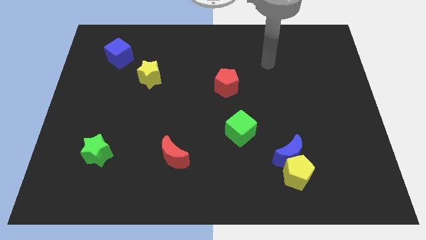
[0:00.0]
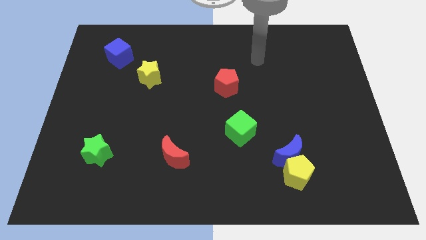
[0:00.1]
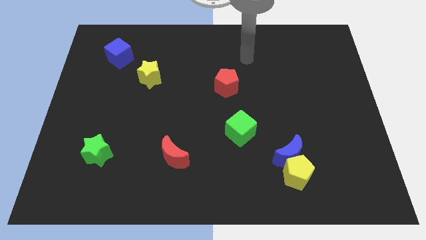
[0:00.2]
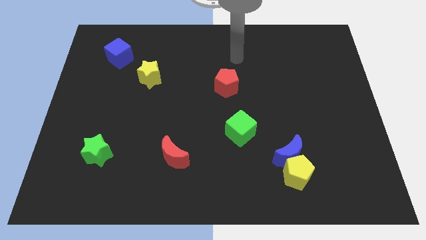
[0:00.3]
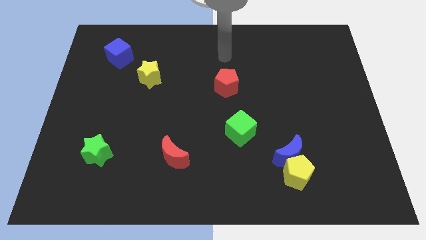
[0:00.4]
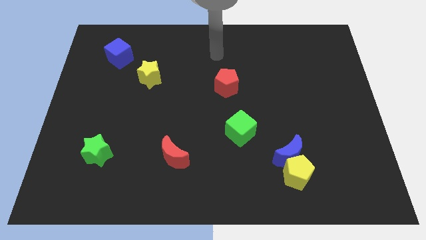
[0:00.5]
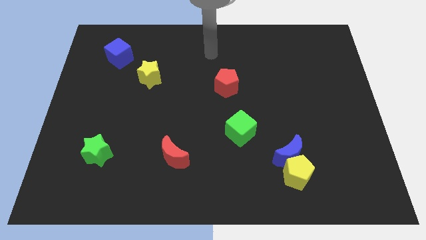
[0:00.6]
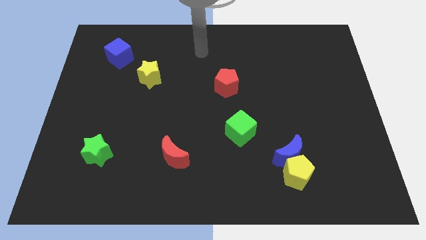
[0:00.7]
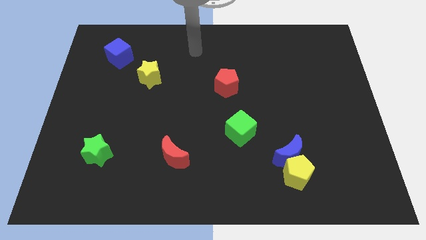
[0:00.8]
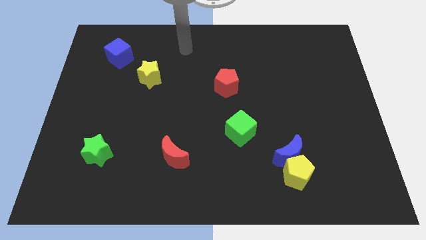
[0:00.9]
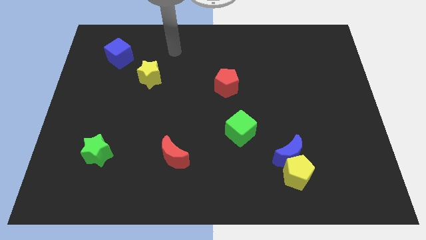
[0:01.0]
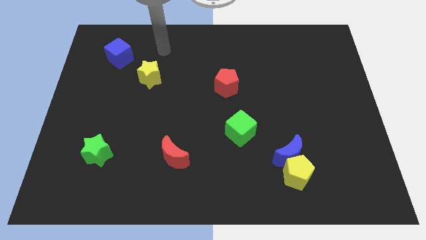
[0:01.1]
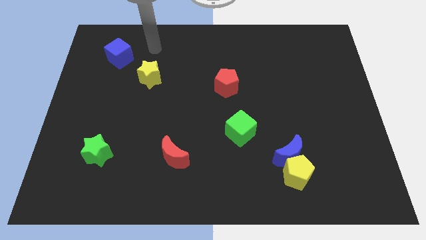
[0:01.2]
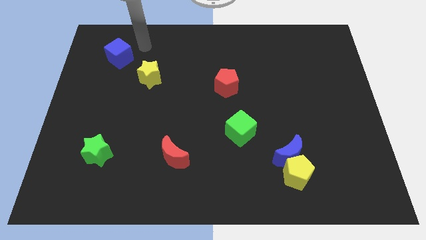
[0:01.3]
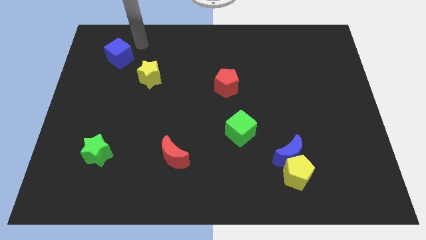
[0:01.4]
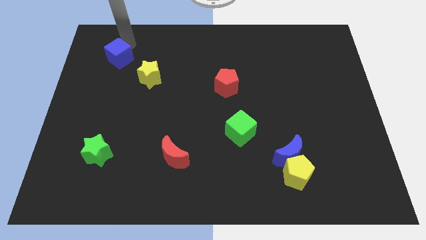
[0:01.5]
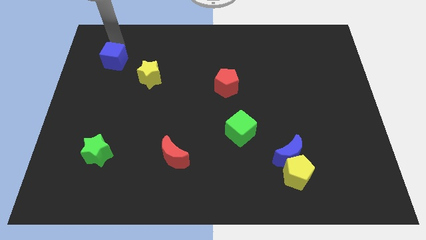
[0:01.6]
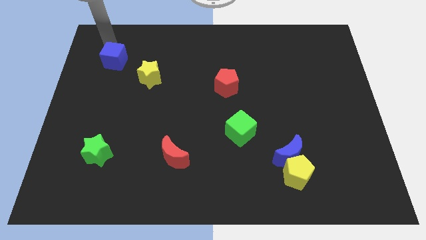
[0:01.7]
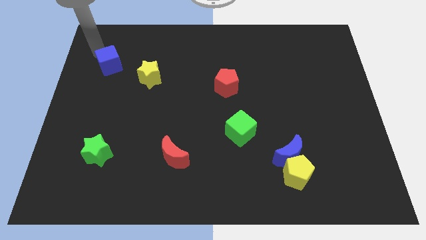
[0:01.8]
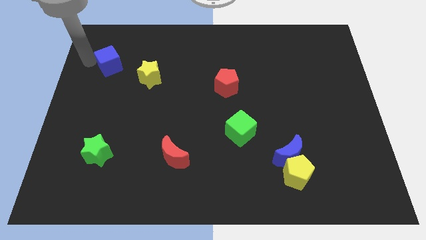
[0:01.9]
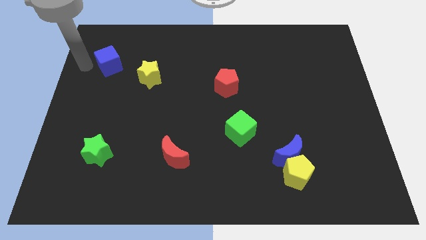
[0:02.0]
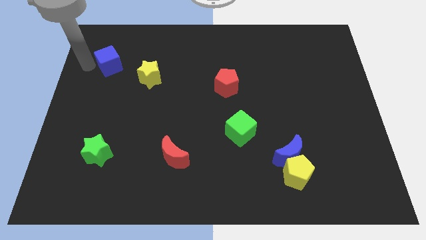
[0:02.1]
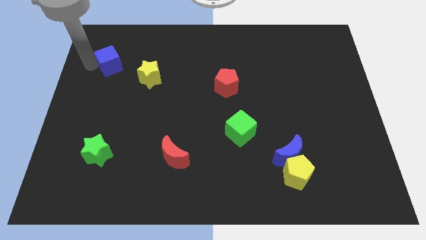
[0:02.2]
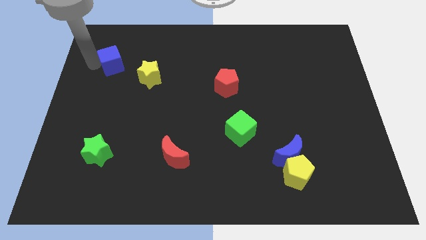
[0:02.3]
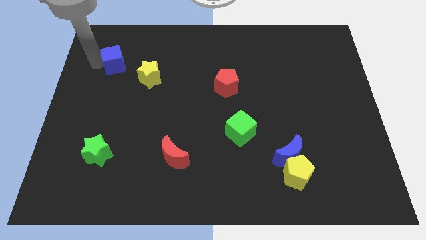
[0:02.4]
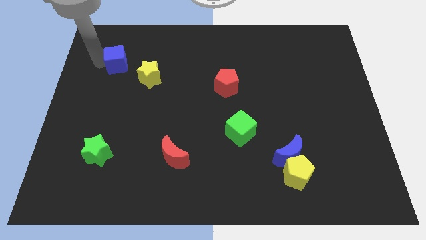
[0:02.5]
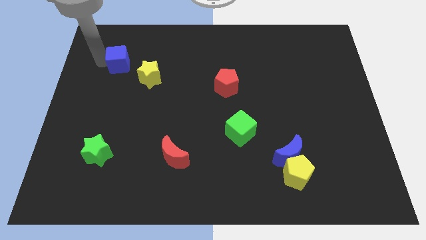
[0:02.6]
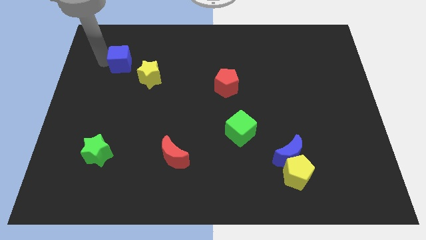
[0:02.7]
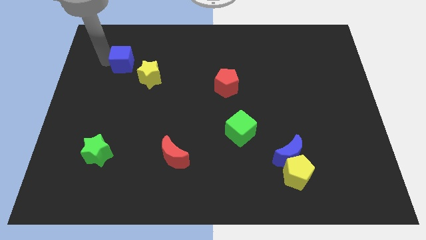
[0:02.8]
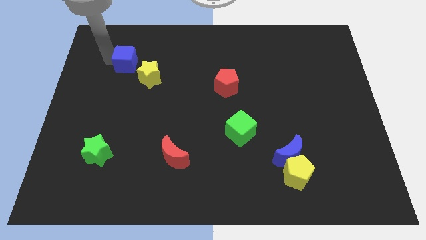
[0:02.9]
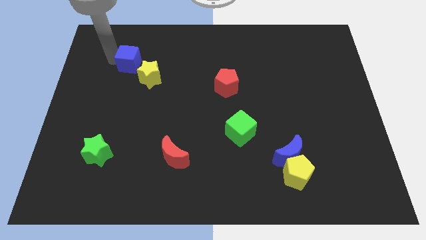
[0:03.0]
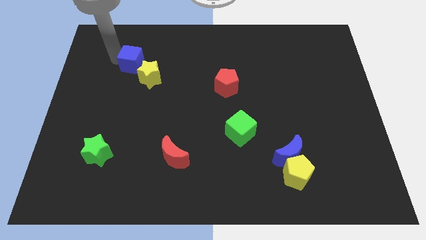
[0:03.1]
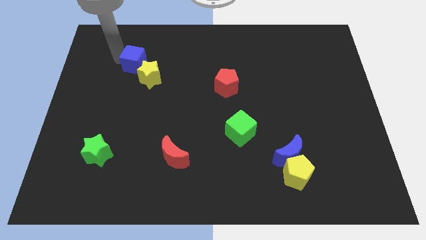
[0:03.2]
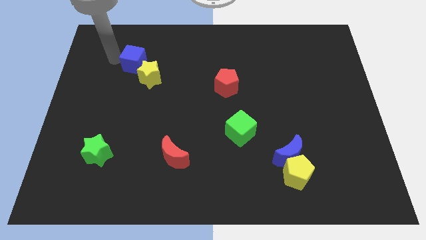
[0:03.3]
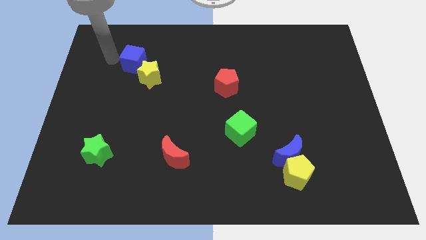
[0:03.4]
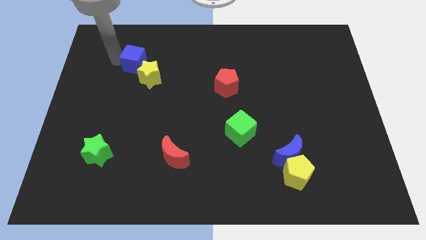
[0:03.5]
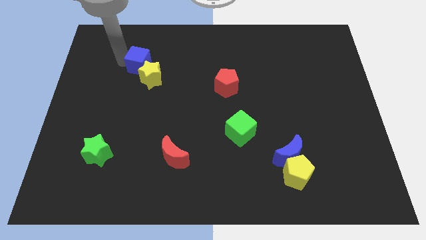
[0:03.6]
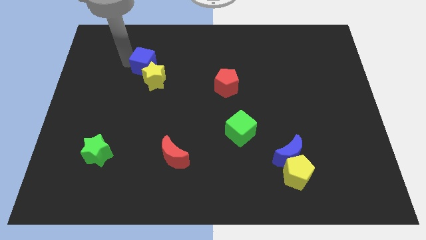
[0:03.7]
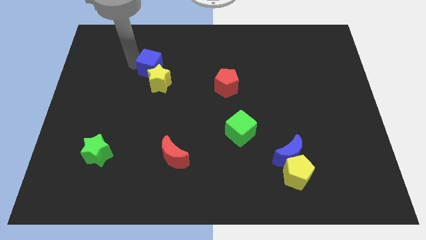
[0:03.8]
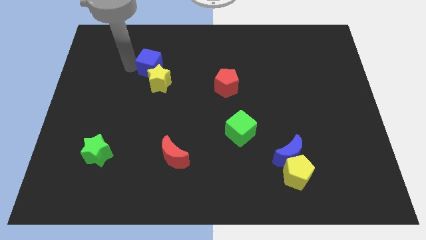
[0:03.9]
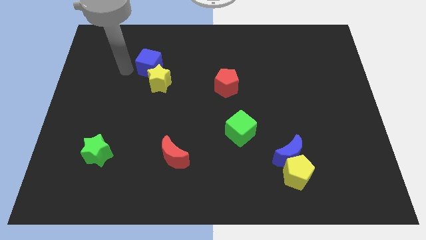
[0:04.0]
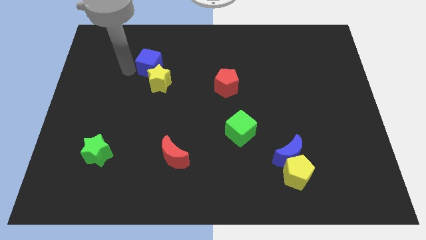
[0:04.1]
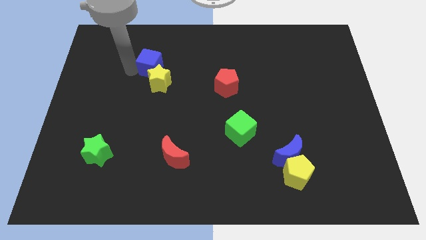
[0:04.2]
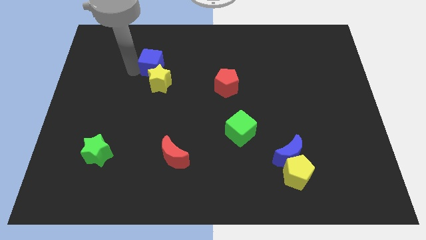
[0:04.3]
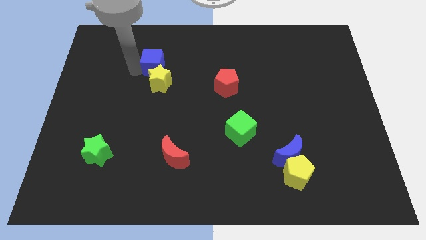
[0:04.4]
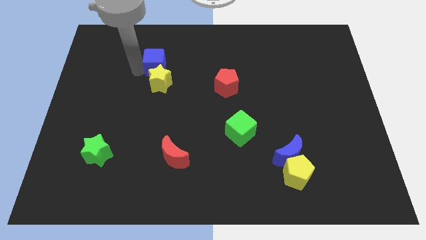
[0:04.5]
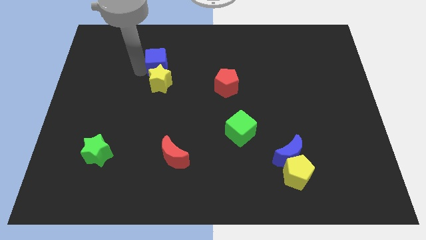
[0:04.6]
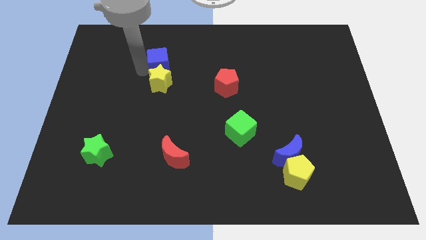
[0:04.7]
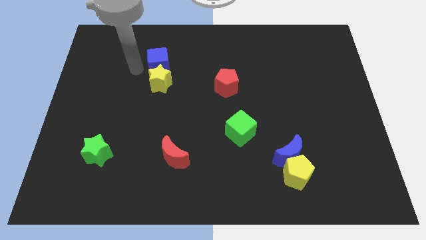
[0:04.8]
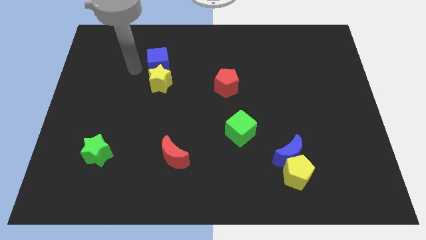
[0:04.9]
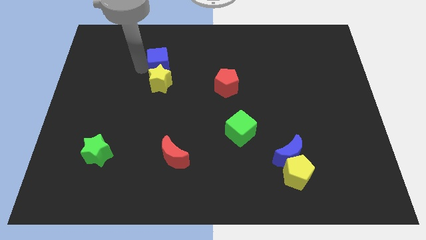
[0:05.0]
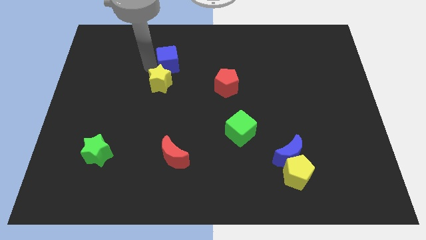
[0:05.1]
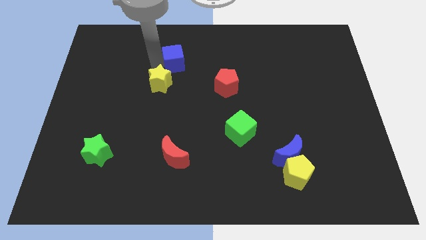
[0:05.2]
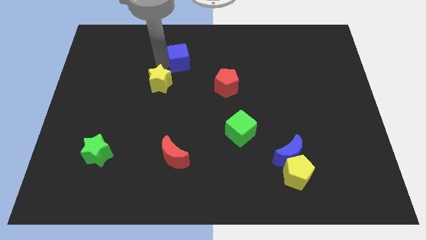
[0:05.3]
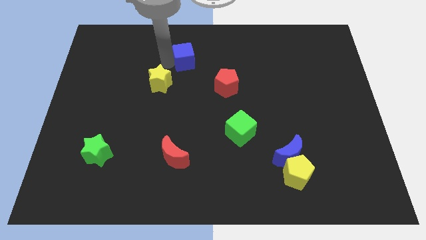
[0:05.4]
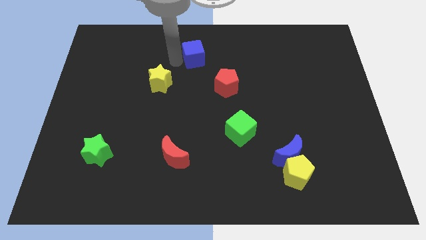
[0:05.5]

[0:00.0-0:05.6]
push the blue cube to the right

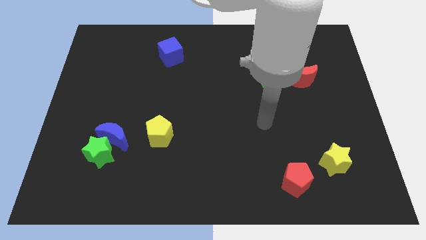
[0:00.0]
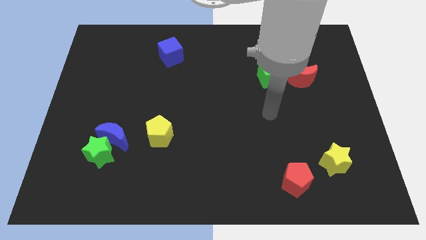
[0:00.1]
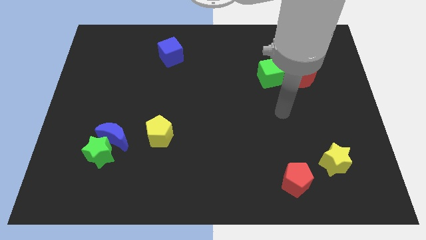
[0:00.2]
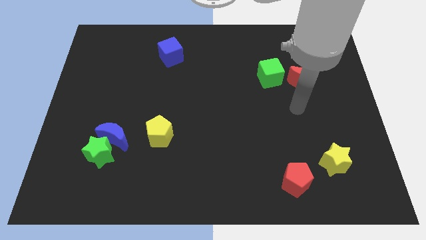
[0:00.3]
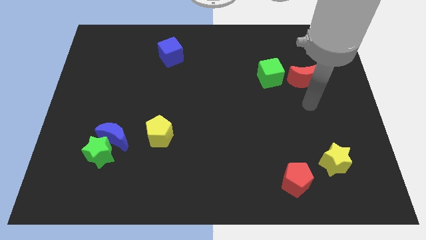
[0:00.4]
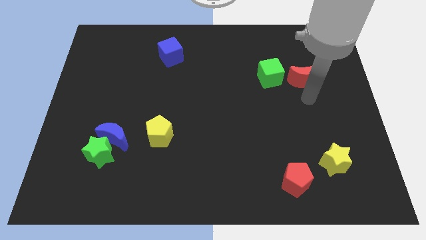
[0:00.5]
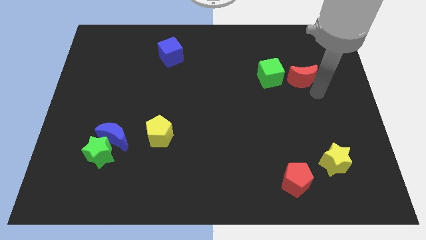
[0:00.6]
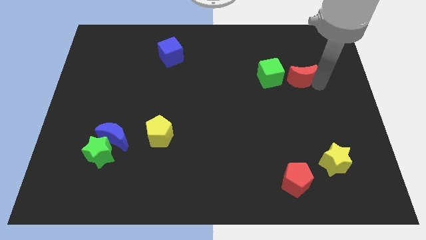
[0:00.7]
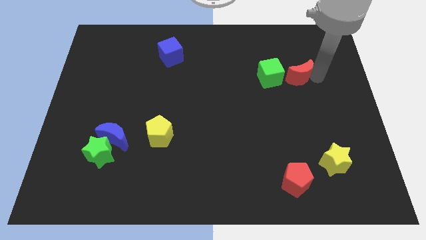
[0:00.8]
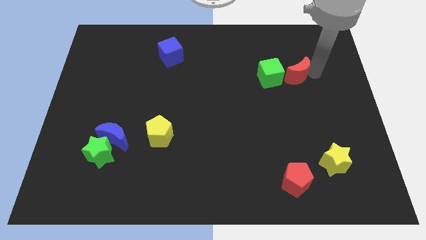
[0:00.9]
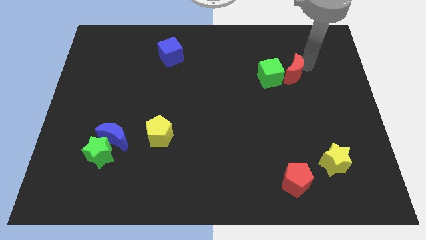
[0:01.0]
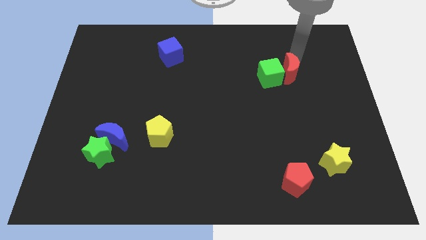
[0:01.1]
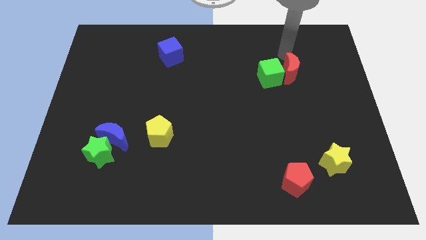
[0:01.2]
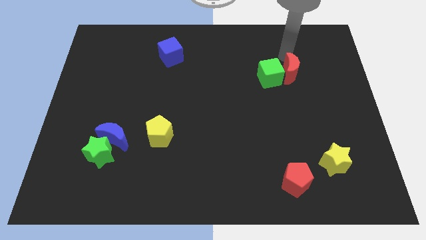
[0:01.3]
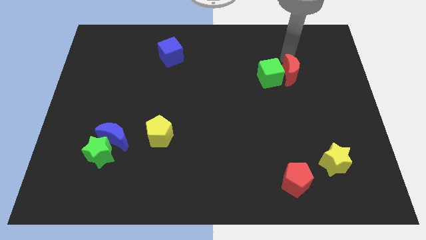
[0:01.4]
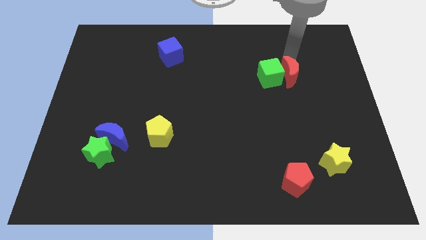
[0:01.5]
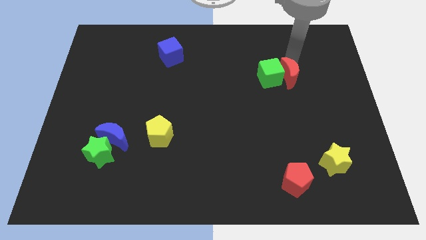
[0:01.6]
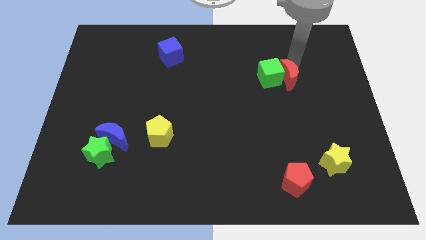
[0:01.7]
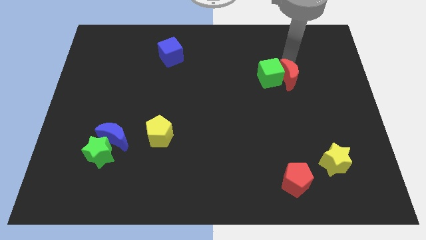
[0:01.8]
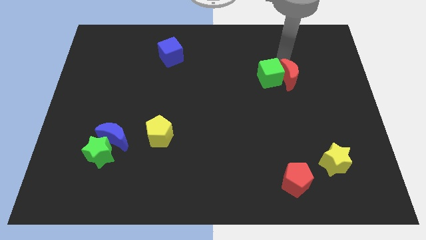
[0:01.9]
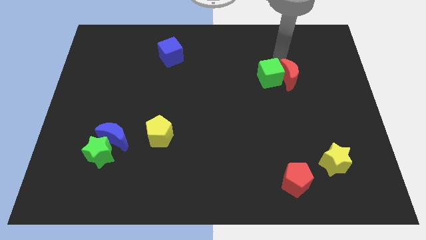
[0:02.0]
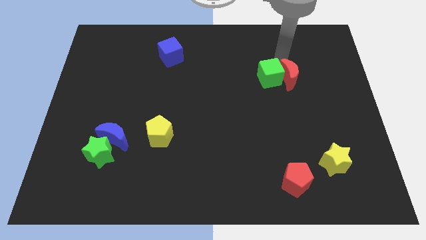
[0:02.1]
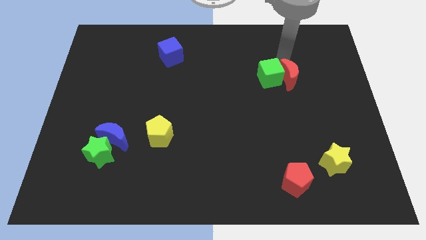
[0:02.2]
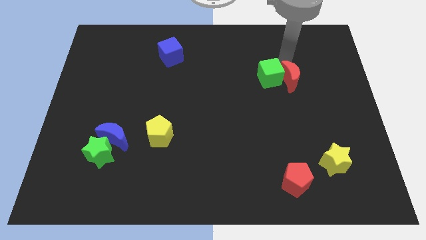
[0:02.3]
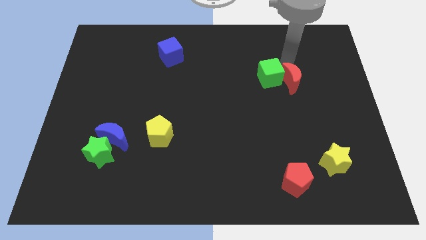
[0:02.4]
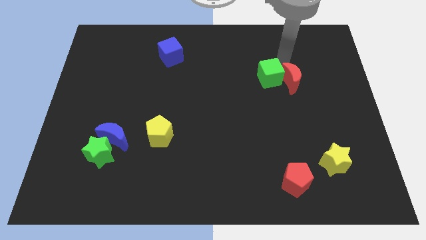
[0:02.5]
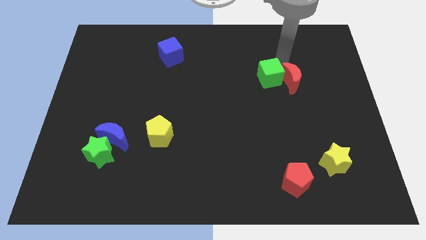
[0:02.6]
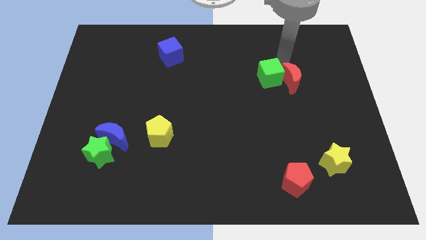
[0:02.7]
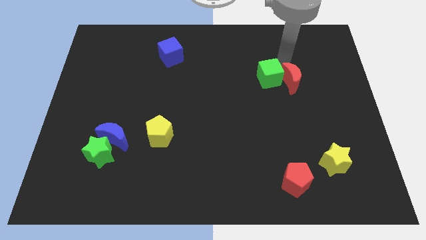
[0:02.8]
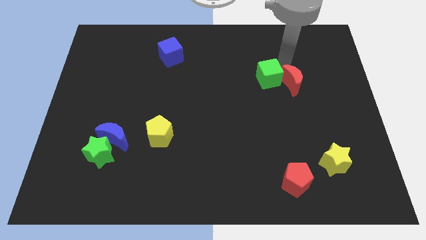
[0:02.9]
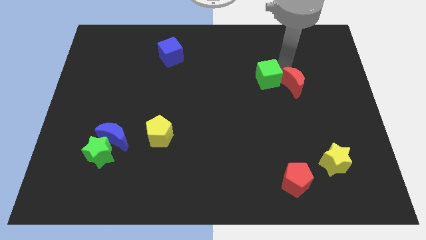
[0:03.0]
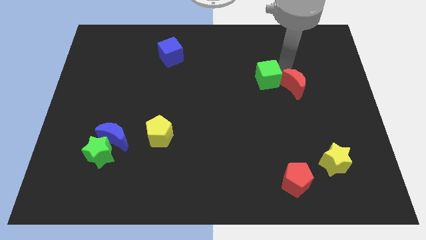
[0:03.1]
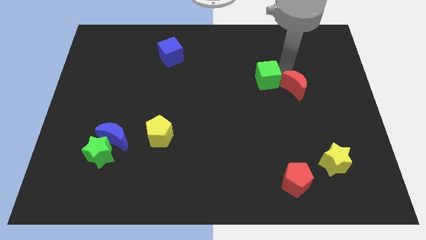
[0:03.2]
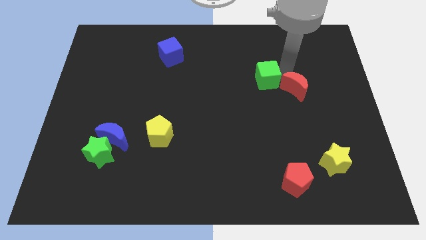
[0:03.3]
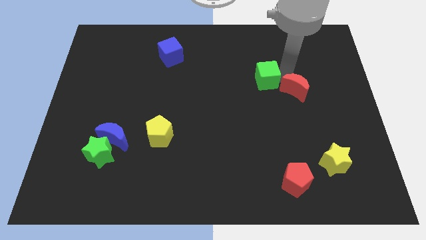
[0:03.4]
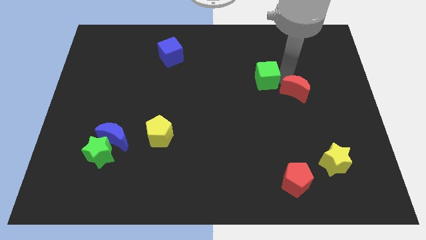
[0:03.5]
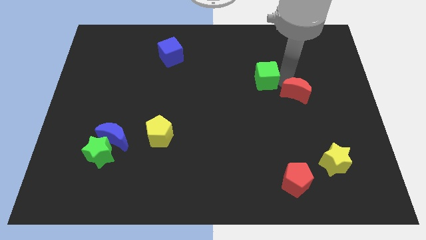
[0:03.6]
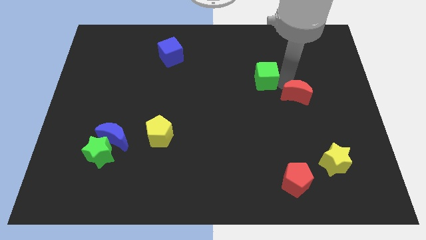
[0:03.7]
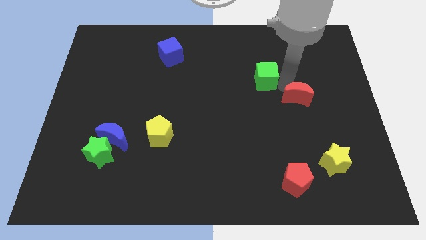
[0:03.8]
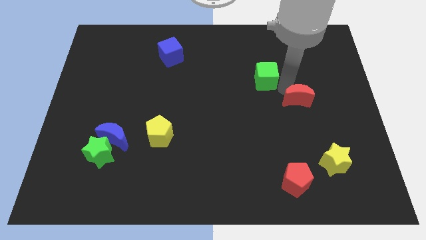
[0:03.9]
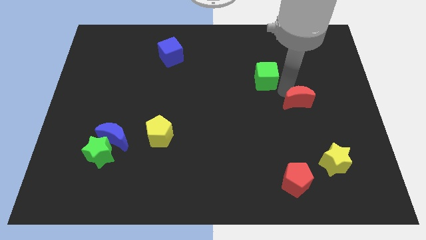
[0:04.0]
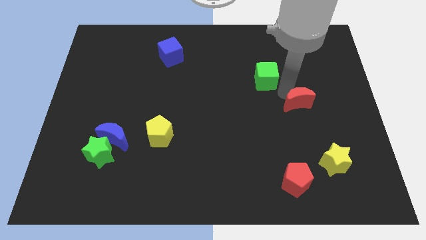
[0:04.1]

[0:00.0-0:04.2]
slightly slide the red moon downwards
